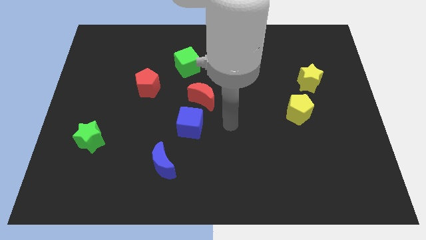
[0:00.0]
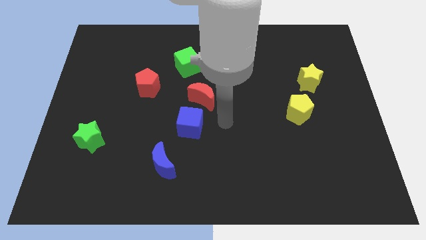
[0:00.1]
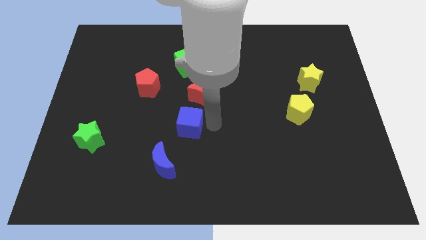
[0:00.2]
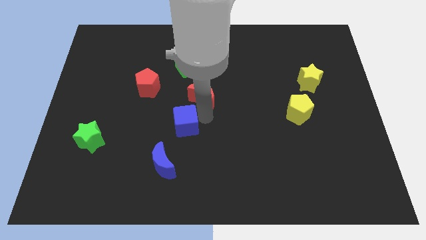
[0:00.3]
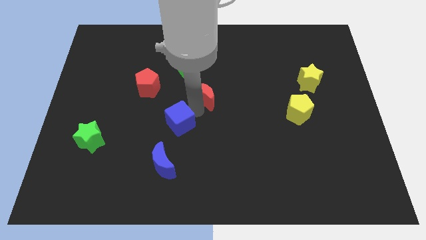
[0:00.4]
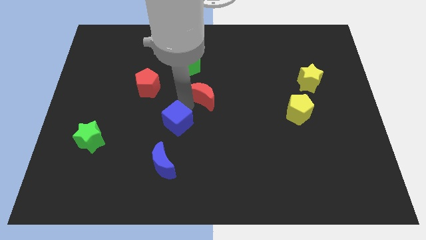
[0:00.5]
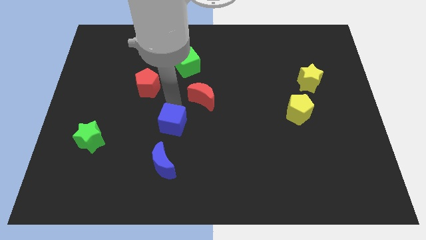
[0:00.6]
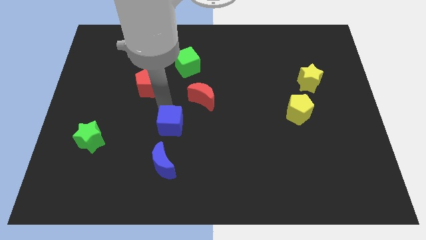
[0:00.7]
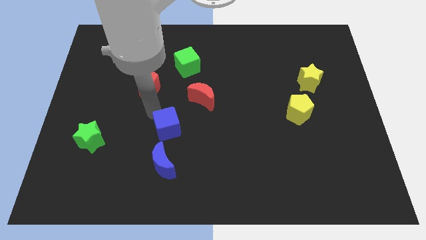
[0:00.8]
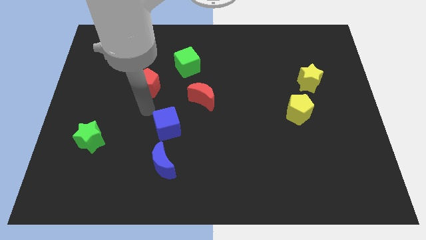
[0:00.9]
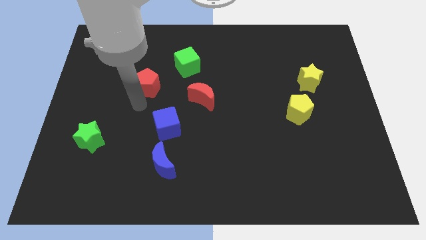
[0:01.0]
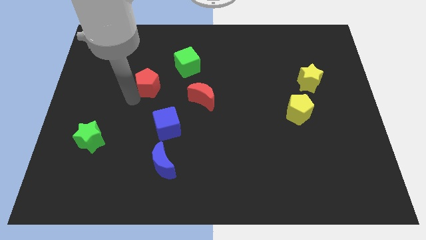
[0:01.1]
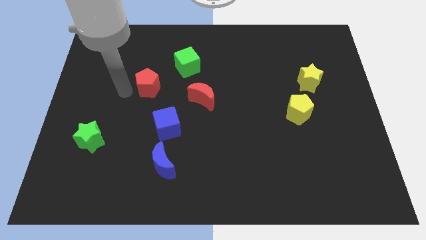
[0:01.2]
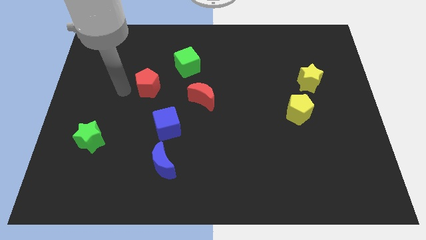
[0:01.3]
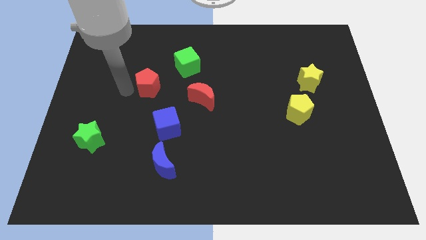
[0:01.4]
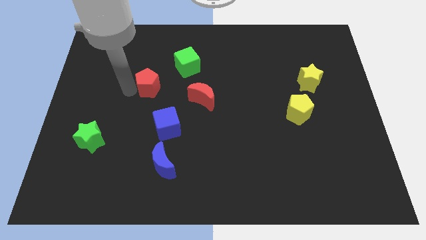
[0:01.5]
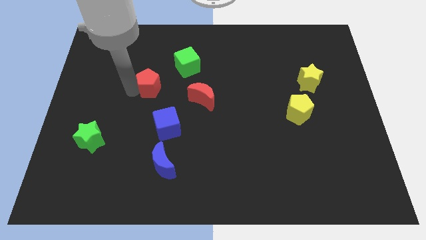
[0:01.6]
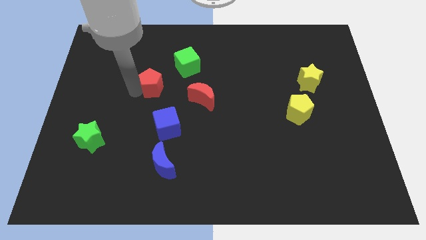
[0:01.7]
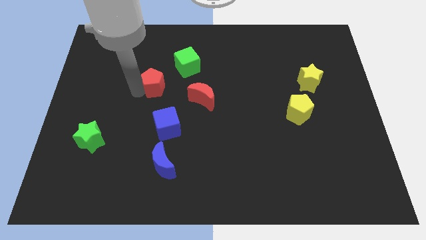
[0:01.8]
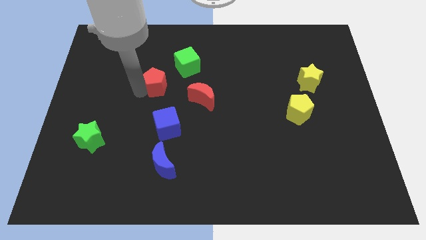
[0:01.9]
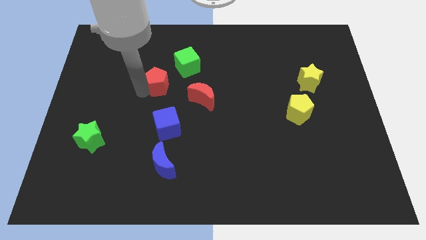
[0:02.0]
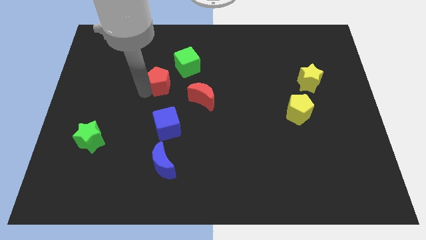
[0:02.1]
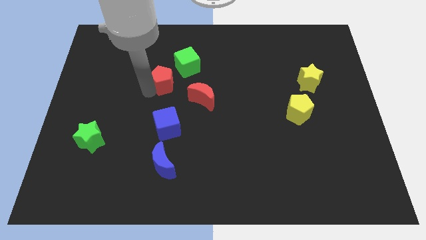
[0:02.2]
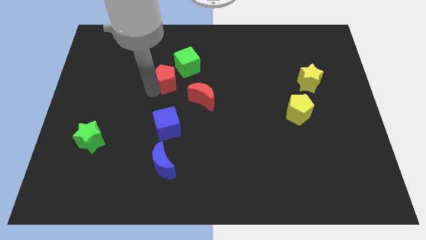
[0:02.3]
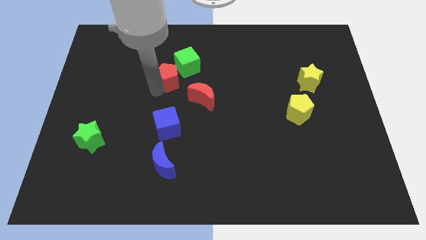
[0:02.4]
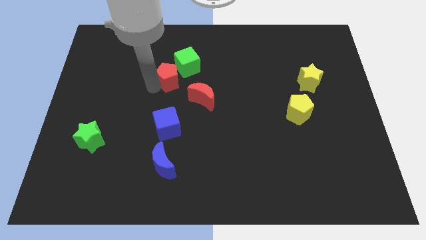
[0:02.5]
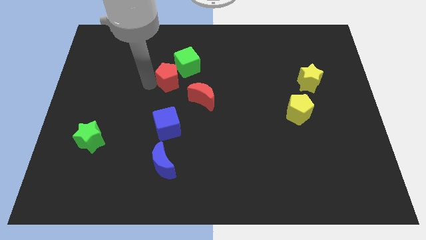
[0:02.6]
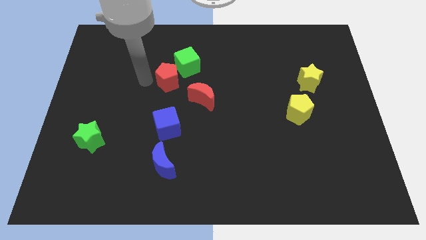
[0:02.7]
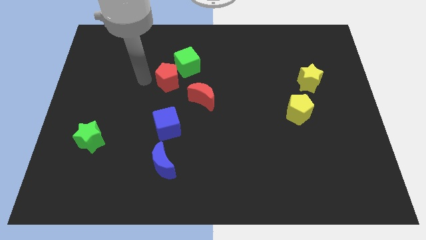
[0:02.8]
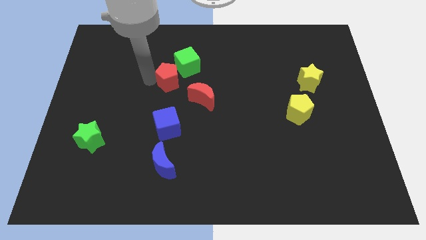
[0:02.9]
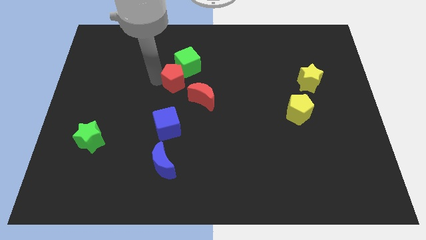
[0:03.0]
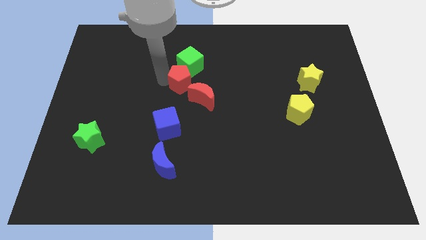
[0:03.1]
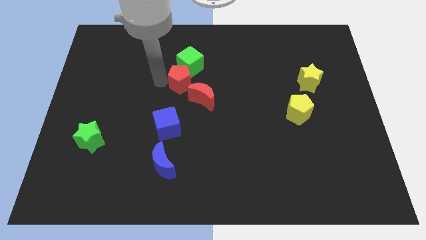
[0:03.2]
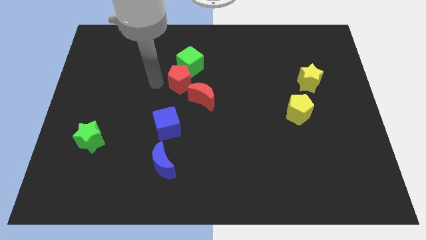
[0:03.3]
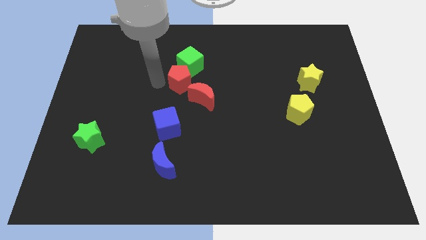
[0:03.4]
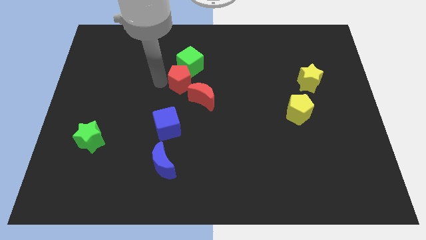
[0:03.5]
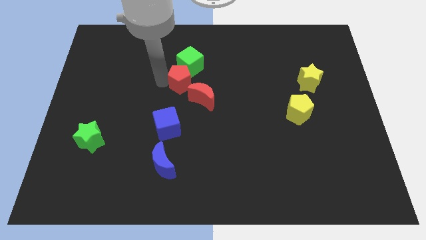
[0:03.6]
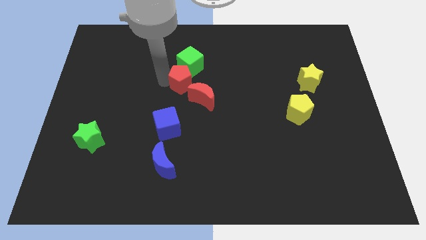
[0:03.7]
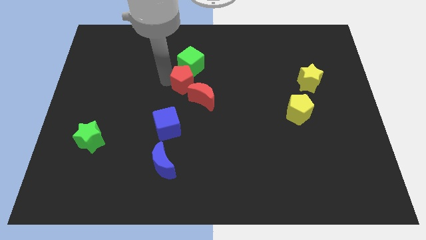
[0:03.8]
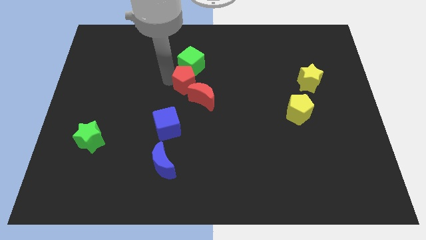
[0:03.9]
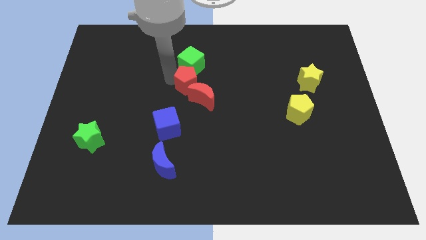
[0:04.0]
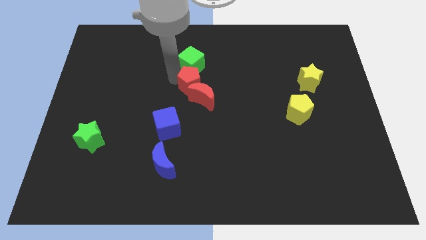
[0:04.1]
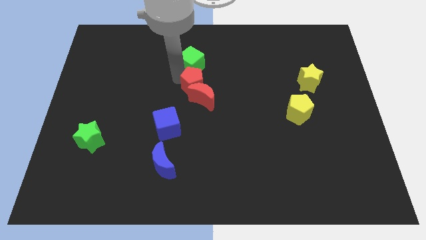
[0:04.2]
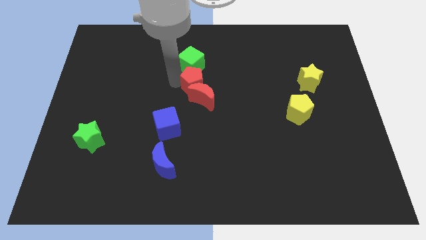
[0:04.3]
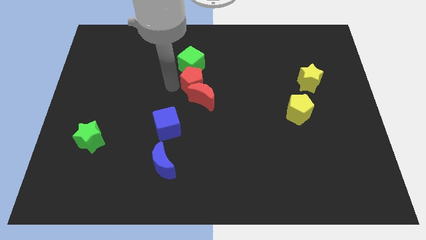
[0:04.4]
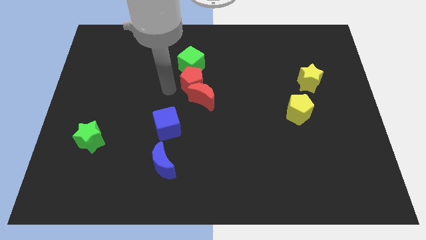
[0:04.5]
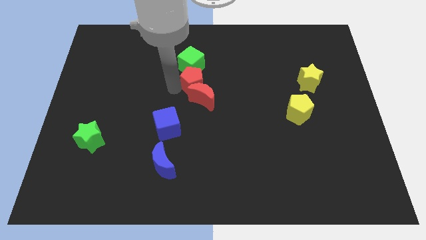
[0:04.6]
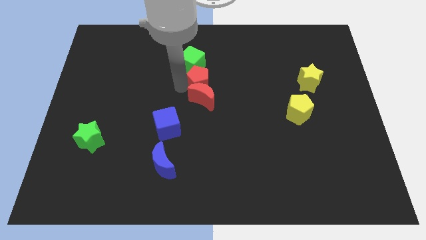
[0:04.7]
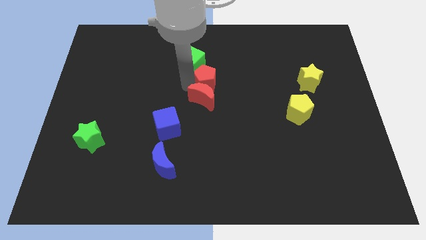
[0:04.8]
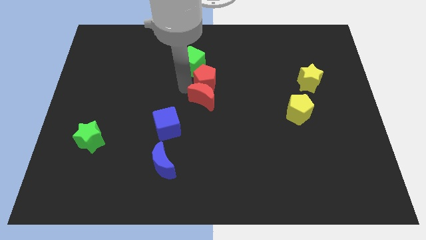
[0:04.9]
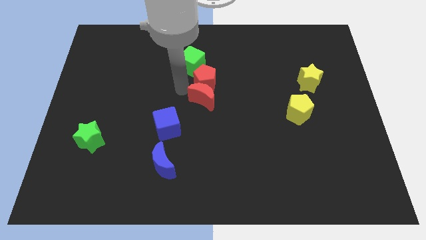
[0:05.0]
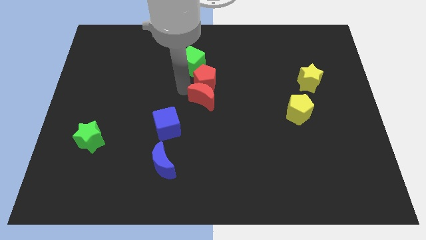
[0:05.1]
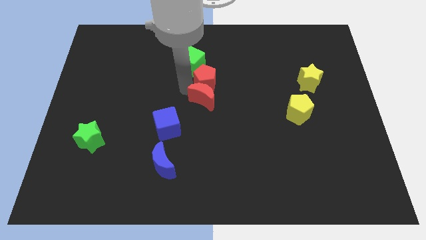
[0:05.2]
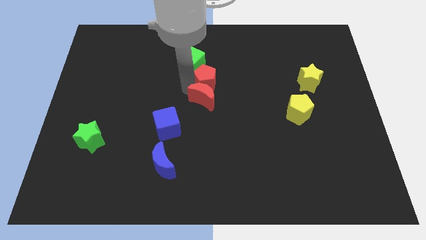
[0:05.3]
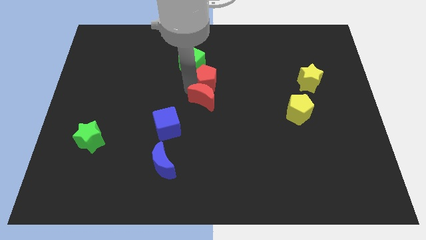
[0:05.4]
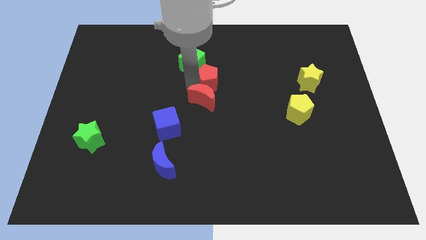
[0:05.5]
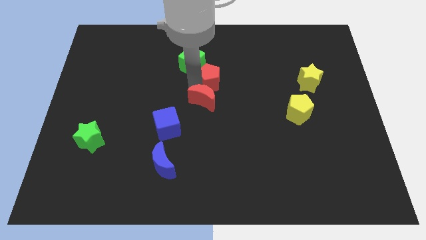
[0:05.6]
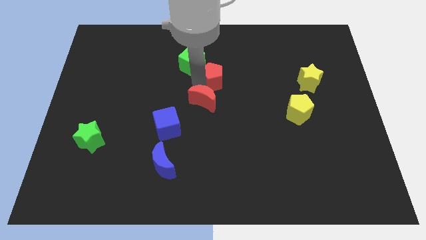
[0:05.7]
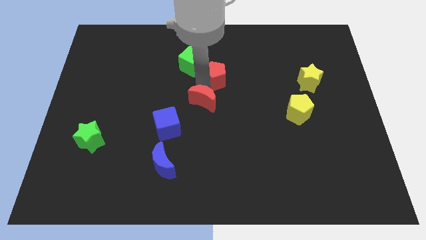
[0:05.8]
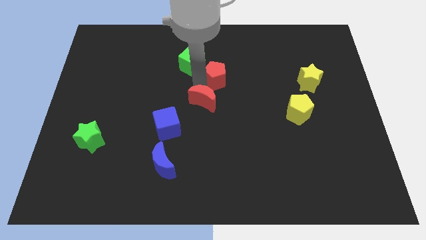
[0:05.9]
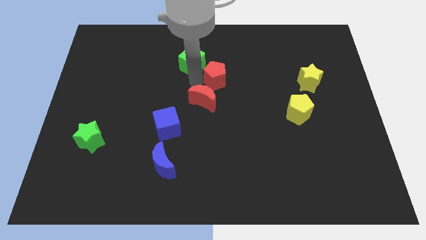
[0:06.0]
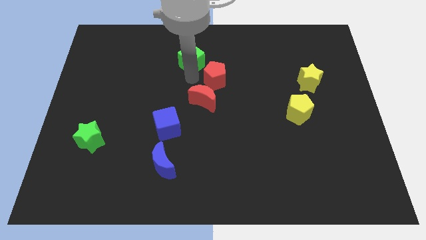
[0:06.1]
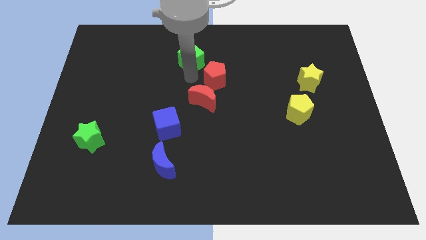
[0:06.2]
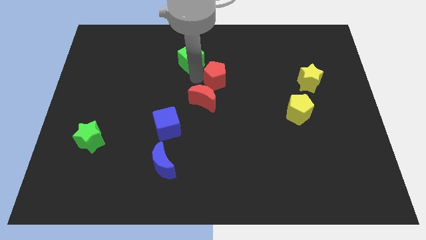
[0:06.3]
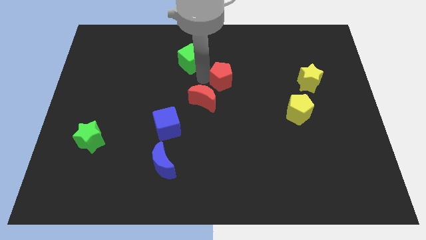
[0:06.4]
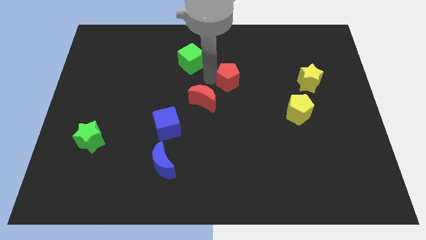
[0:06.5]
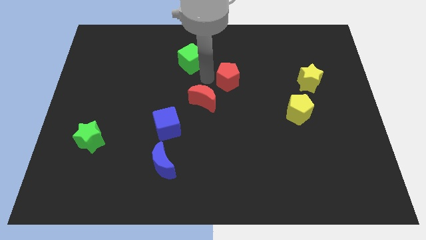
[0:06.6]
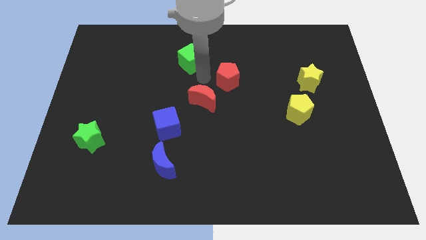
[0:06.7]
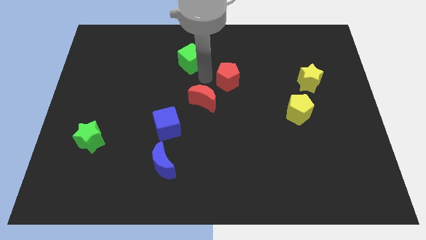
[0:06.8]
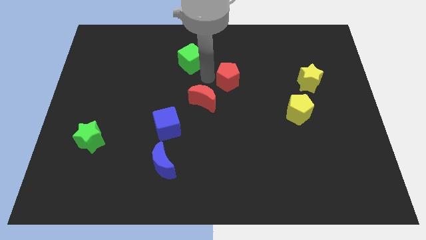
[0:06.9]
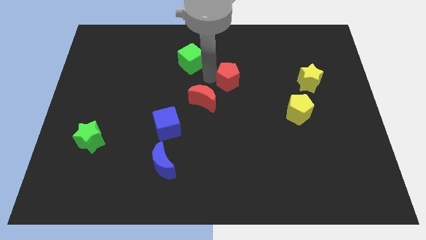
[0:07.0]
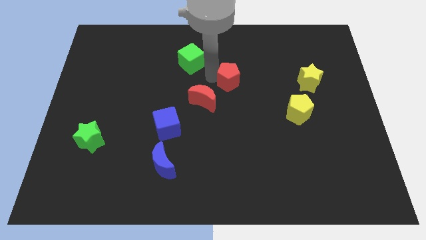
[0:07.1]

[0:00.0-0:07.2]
push the red pentagon to the right

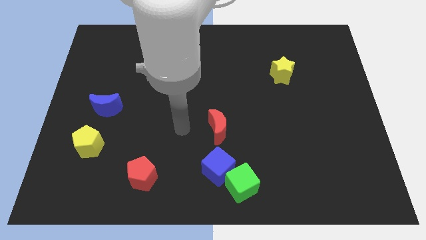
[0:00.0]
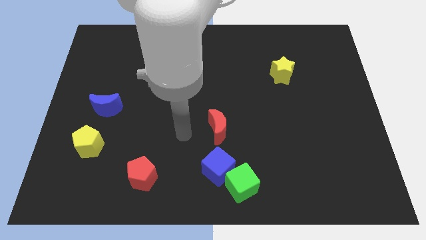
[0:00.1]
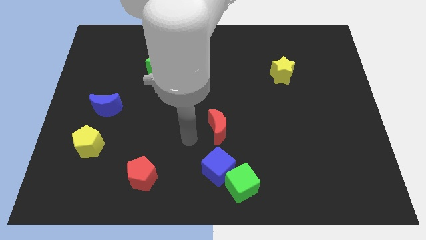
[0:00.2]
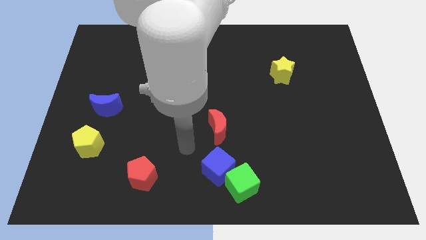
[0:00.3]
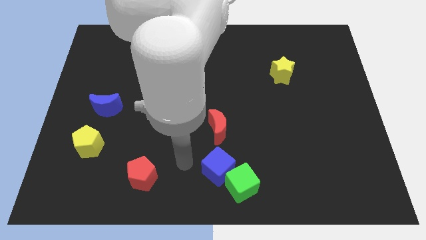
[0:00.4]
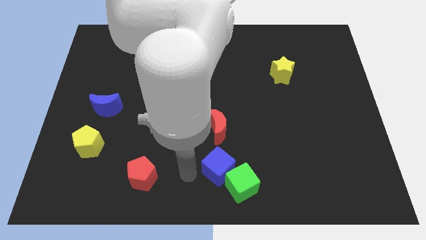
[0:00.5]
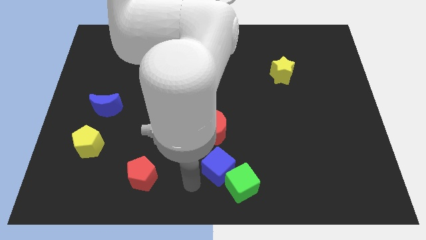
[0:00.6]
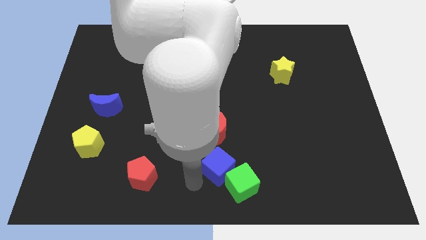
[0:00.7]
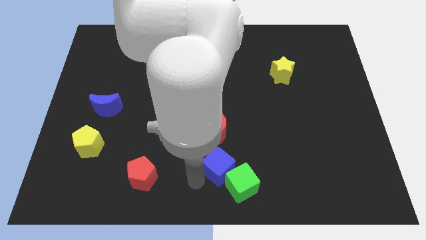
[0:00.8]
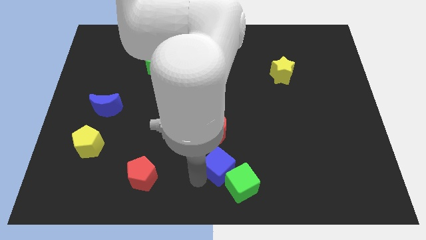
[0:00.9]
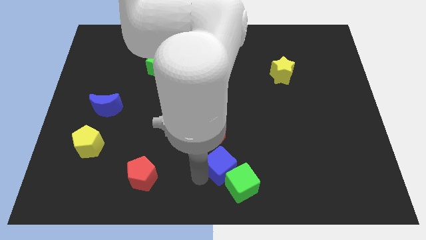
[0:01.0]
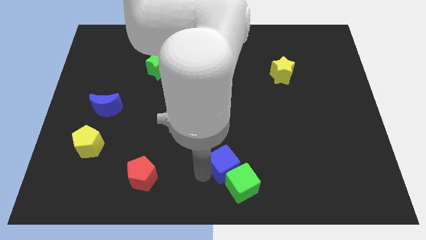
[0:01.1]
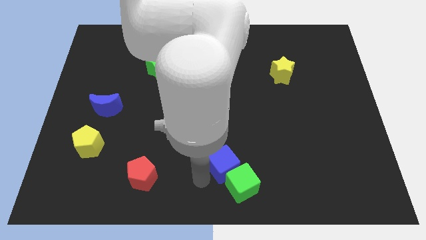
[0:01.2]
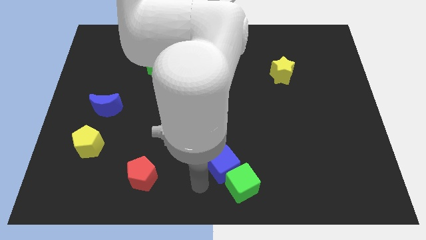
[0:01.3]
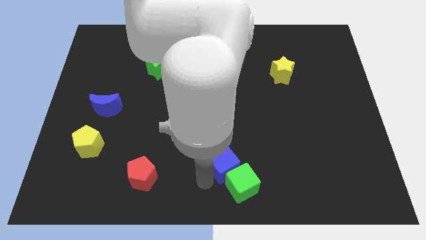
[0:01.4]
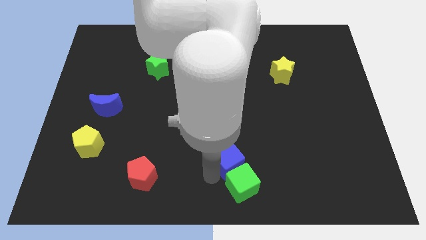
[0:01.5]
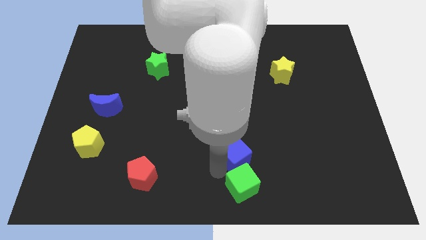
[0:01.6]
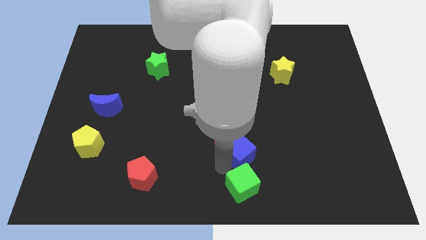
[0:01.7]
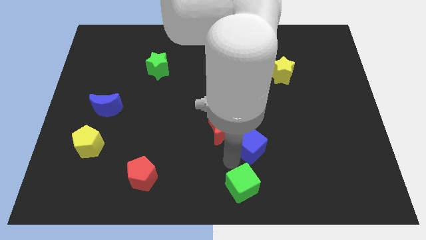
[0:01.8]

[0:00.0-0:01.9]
slightly move the blue cube up and right diagonally
